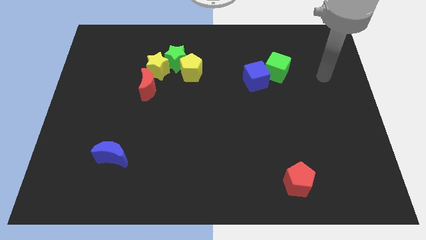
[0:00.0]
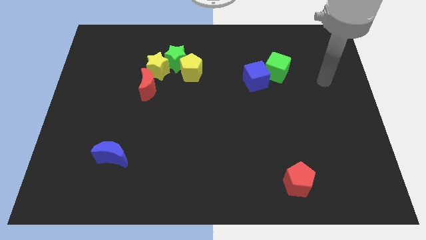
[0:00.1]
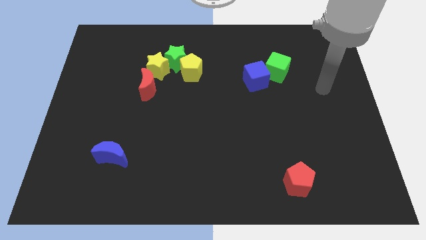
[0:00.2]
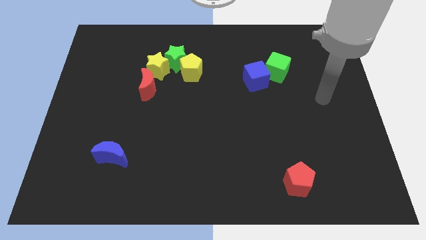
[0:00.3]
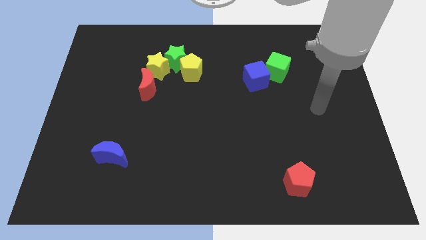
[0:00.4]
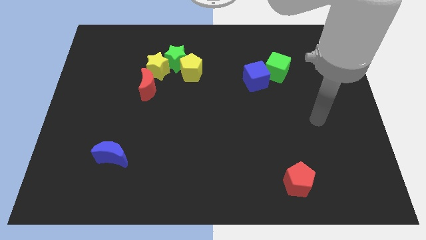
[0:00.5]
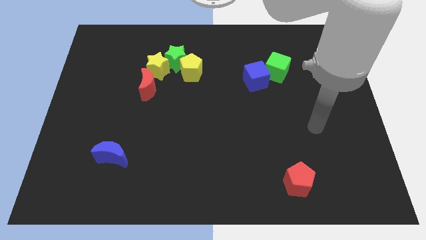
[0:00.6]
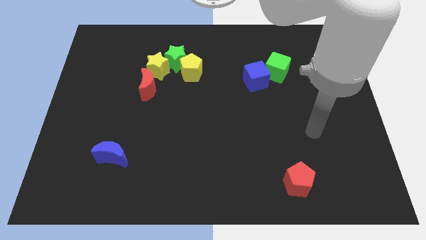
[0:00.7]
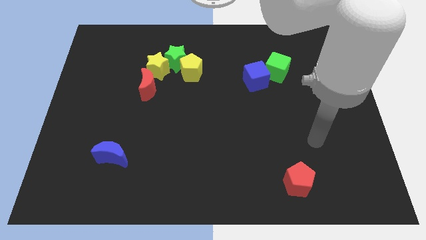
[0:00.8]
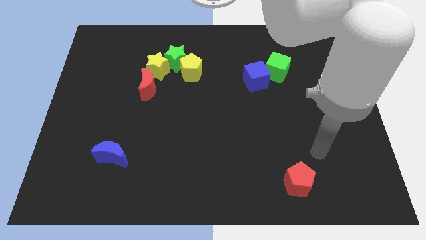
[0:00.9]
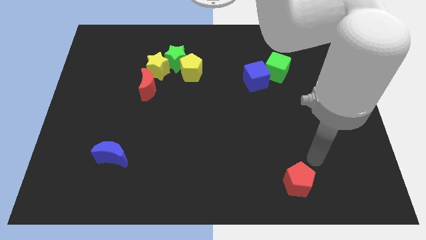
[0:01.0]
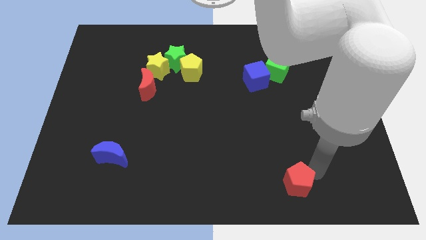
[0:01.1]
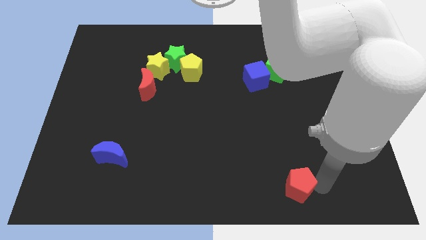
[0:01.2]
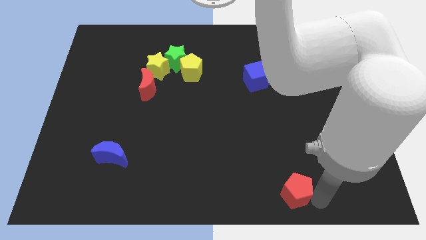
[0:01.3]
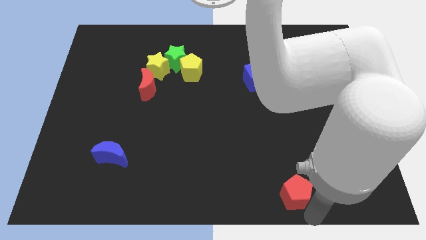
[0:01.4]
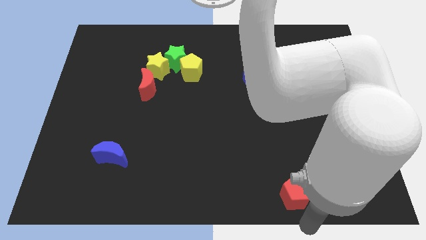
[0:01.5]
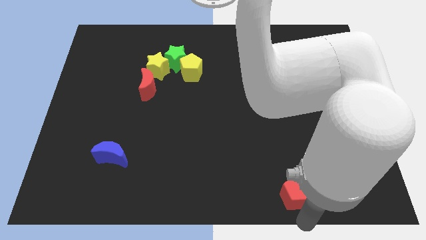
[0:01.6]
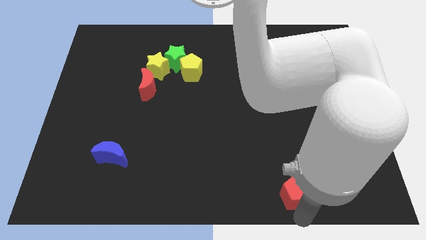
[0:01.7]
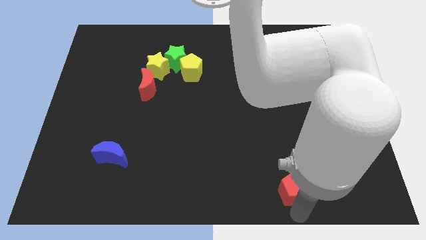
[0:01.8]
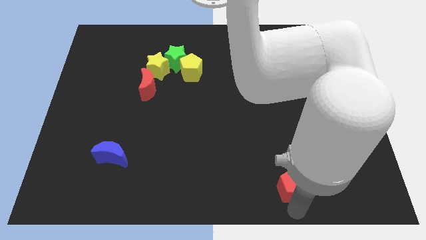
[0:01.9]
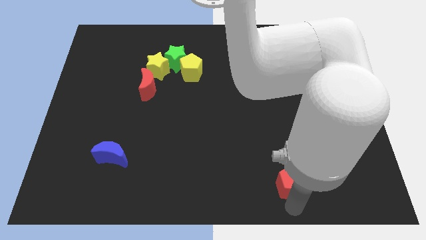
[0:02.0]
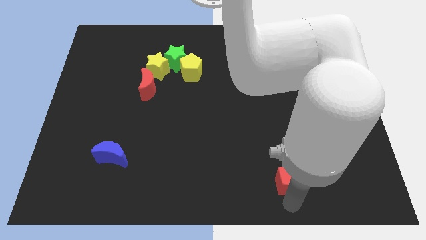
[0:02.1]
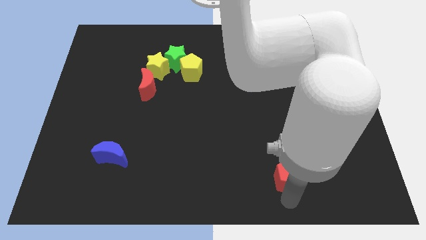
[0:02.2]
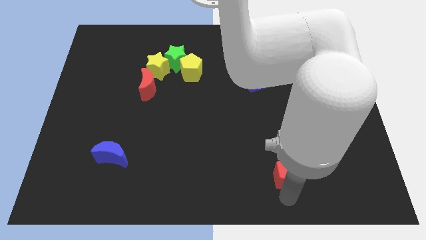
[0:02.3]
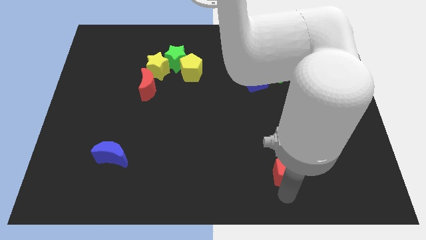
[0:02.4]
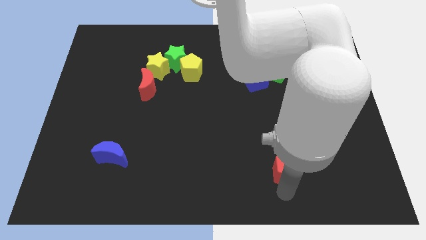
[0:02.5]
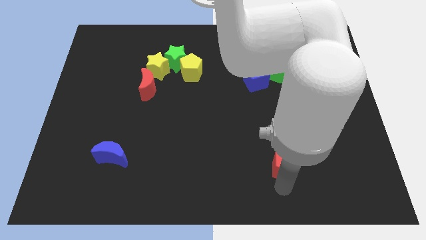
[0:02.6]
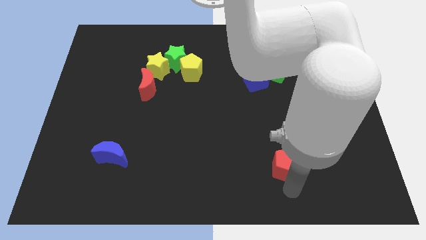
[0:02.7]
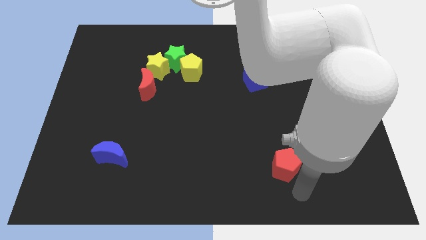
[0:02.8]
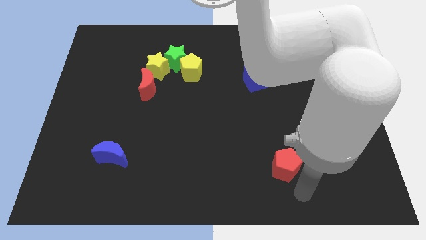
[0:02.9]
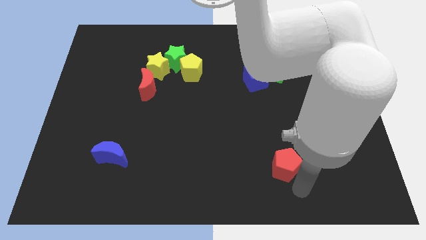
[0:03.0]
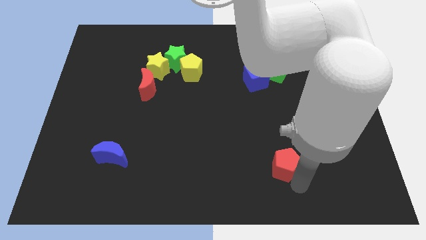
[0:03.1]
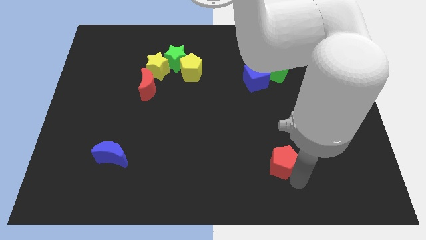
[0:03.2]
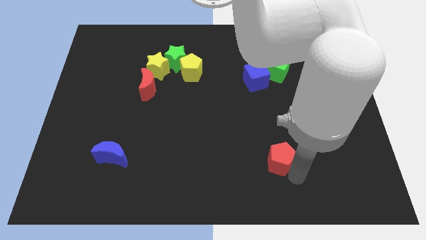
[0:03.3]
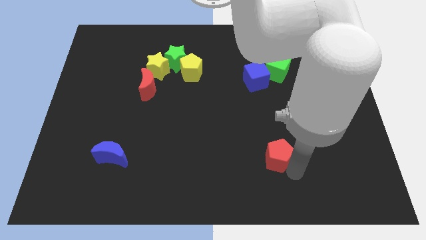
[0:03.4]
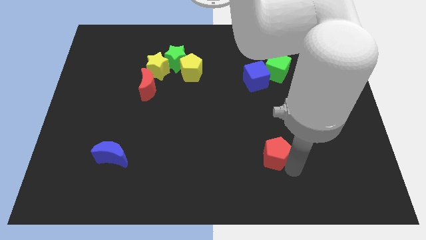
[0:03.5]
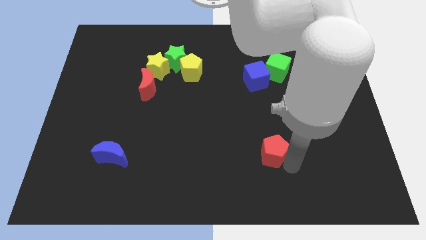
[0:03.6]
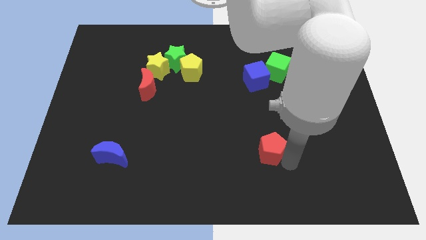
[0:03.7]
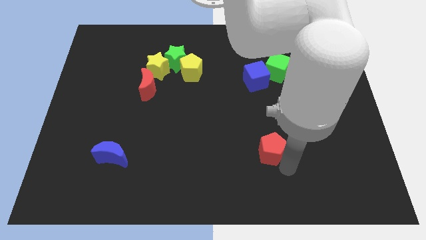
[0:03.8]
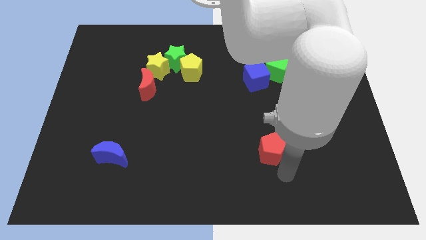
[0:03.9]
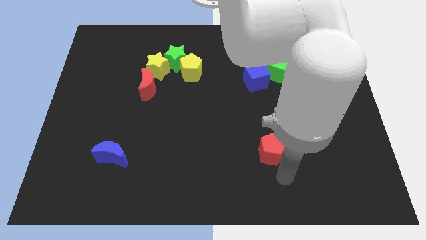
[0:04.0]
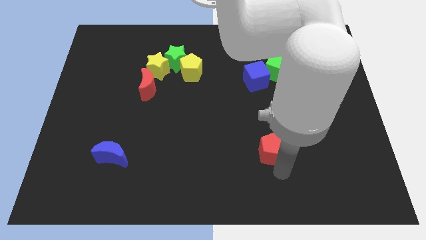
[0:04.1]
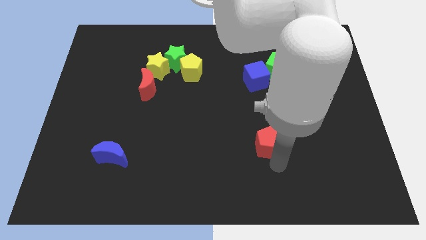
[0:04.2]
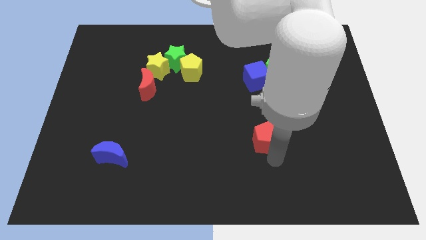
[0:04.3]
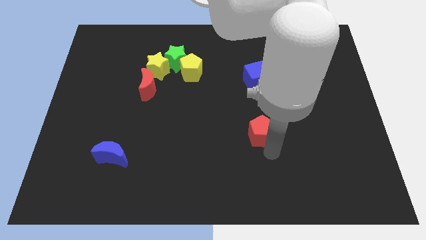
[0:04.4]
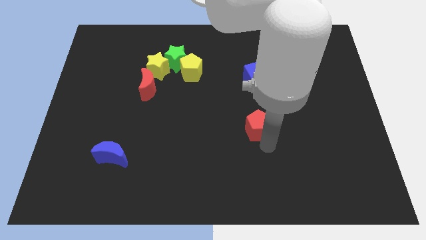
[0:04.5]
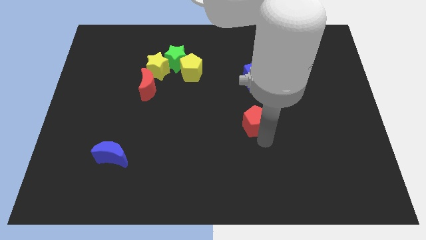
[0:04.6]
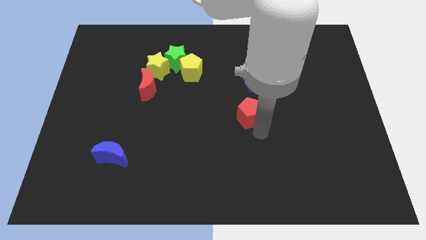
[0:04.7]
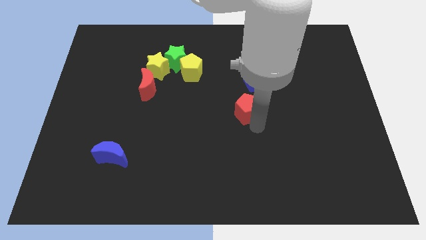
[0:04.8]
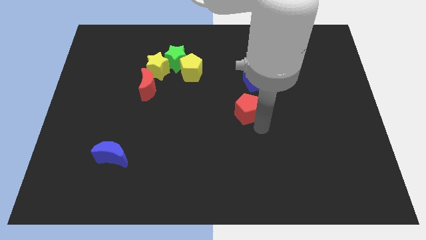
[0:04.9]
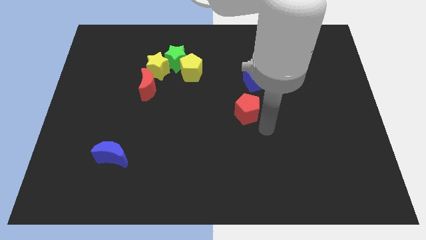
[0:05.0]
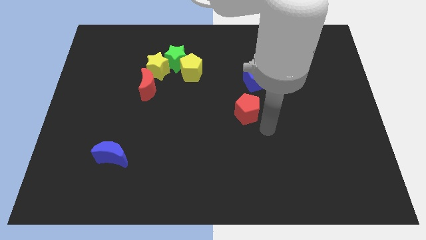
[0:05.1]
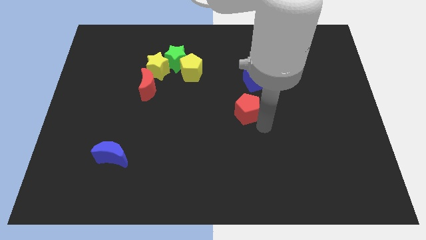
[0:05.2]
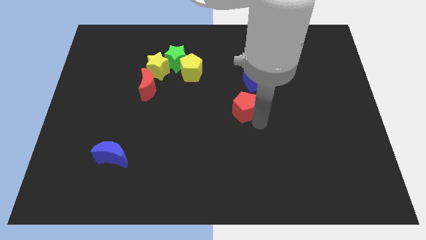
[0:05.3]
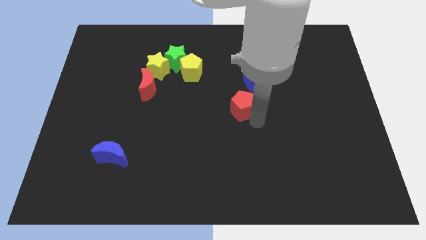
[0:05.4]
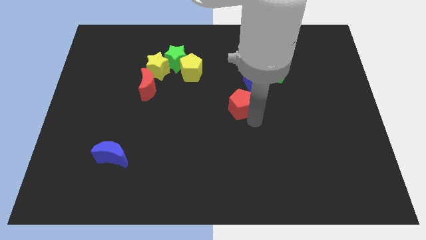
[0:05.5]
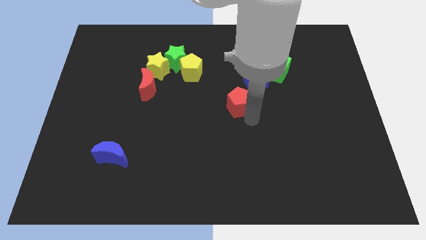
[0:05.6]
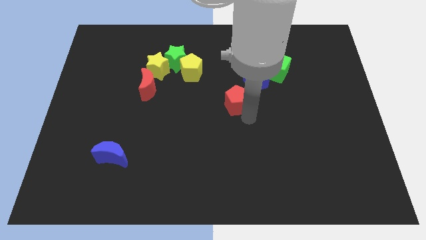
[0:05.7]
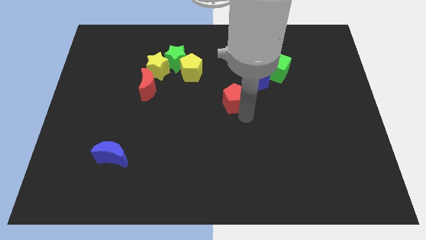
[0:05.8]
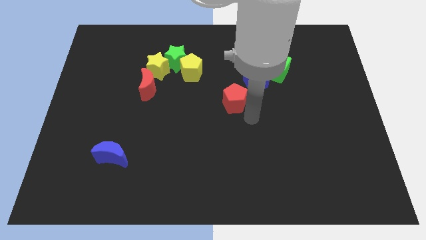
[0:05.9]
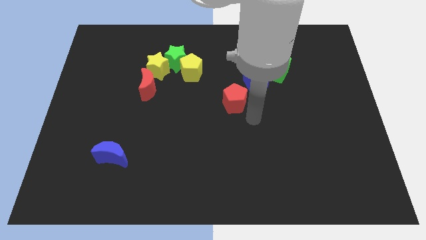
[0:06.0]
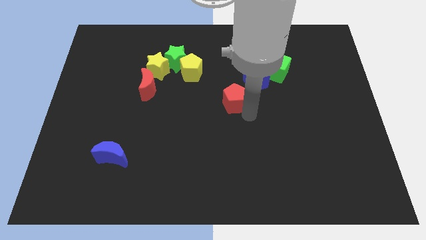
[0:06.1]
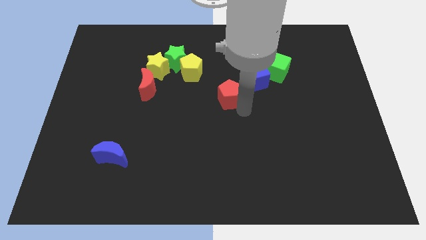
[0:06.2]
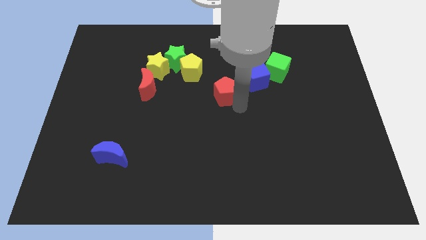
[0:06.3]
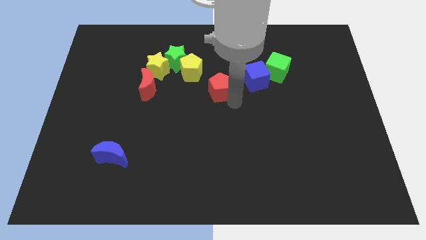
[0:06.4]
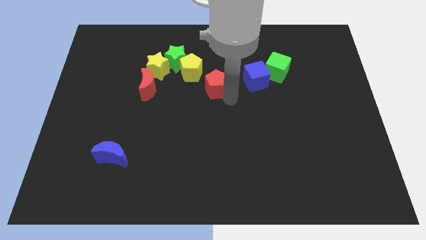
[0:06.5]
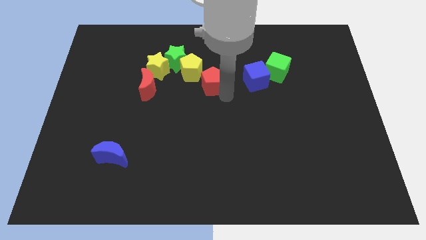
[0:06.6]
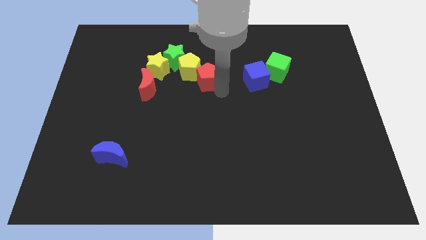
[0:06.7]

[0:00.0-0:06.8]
move the red pentagon next to the yellow pentagon
